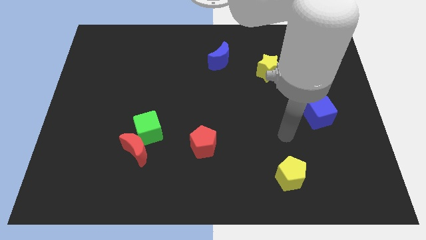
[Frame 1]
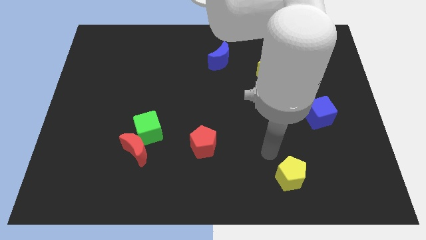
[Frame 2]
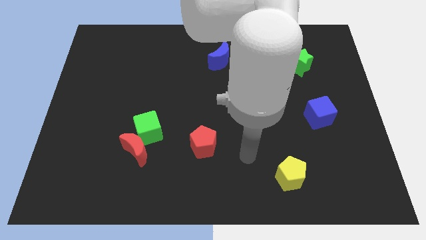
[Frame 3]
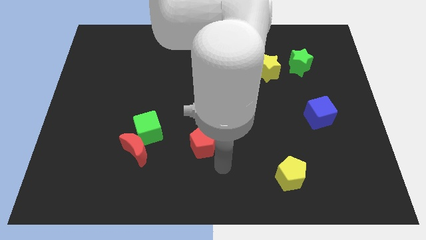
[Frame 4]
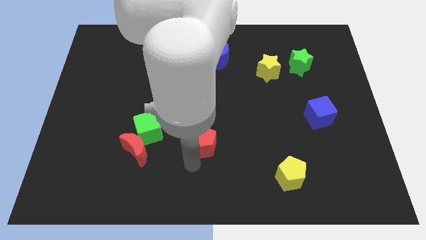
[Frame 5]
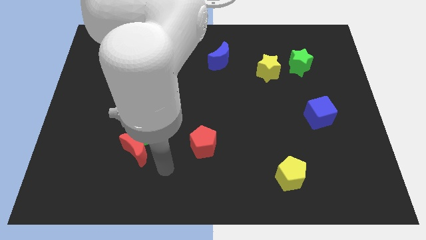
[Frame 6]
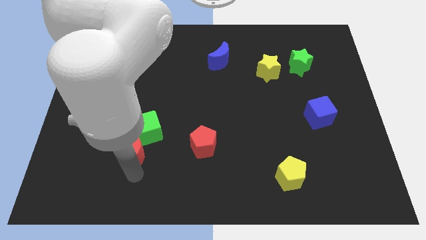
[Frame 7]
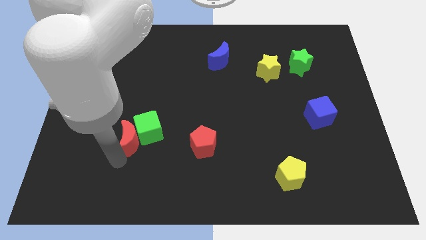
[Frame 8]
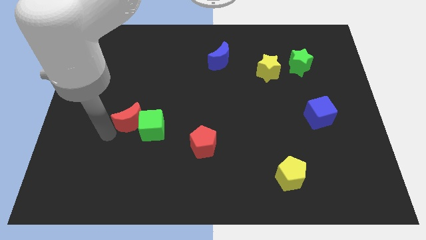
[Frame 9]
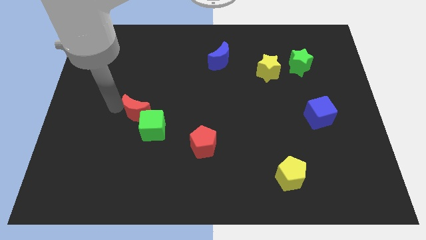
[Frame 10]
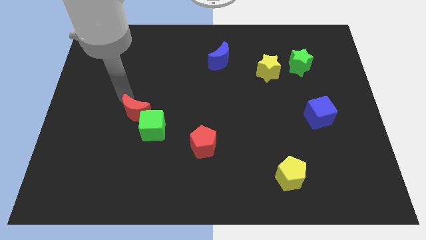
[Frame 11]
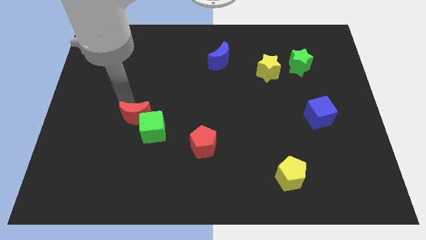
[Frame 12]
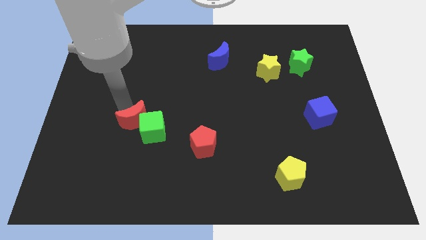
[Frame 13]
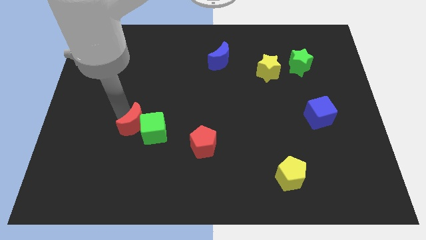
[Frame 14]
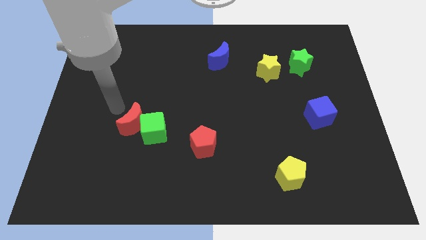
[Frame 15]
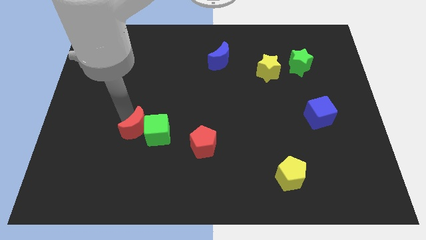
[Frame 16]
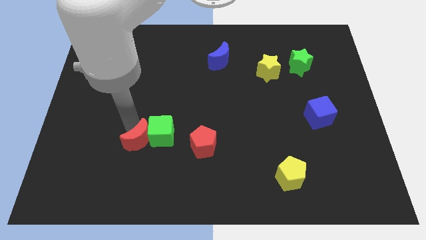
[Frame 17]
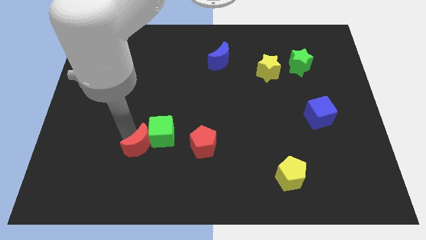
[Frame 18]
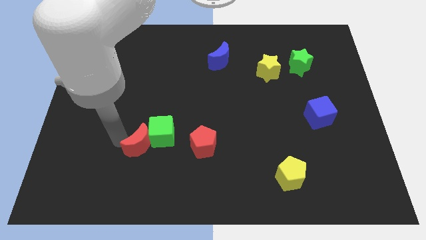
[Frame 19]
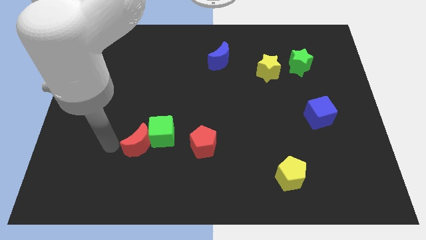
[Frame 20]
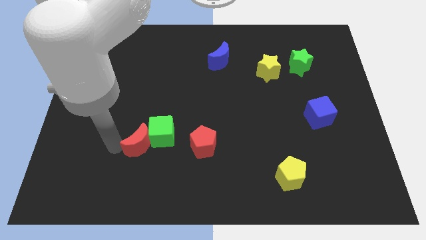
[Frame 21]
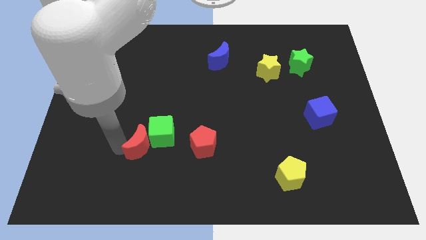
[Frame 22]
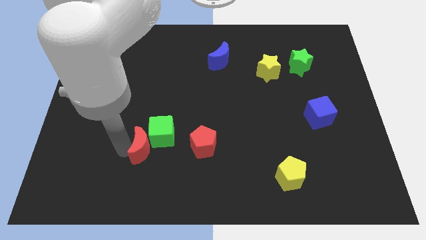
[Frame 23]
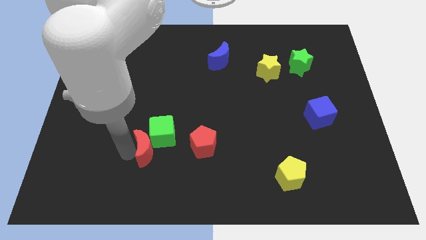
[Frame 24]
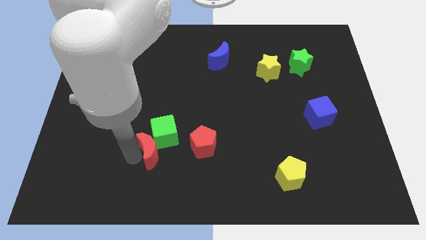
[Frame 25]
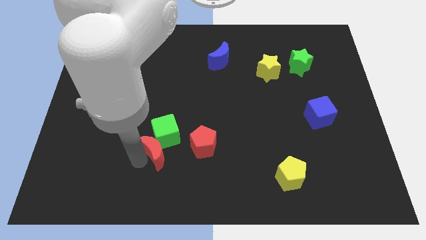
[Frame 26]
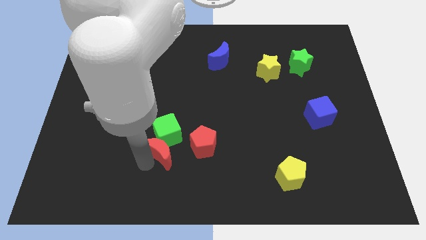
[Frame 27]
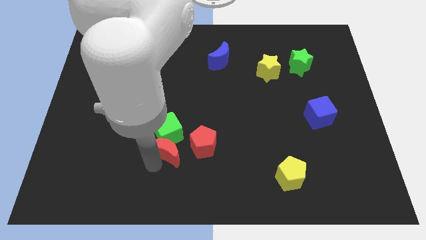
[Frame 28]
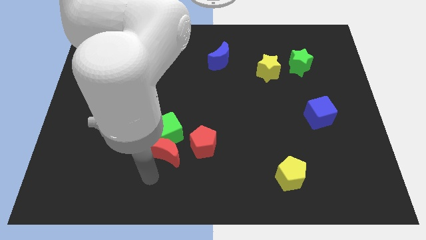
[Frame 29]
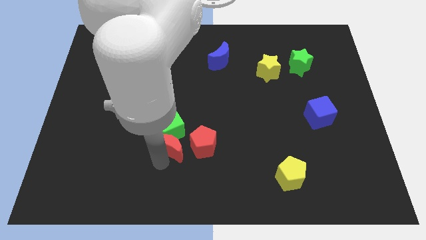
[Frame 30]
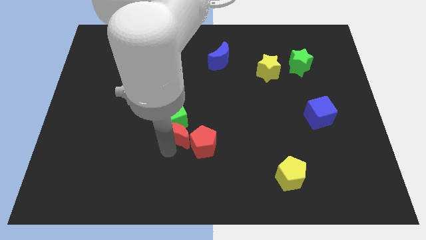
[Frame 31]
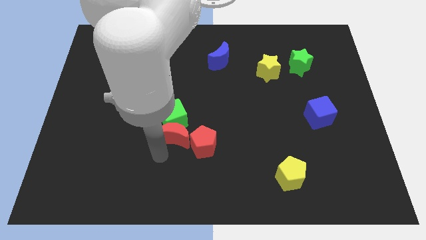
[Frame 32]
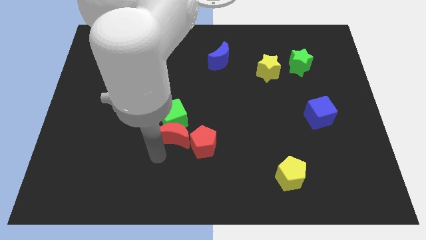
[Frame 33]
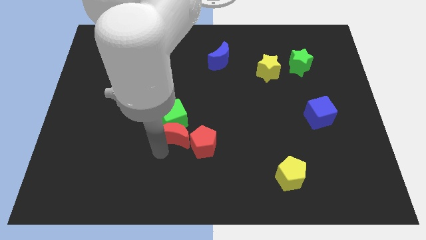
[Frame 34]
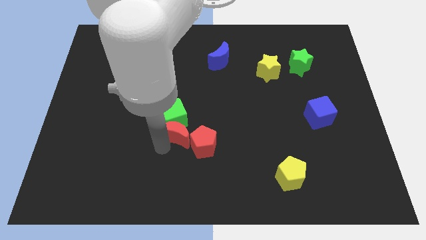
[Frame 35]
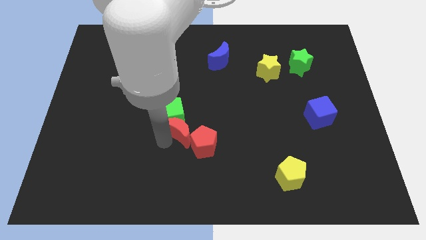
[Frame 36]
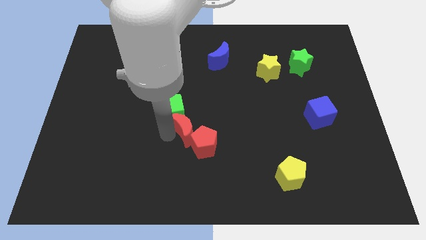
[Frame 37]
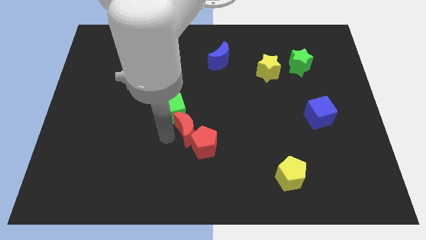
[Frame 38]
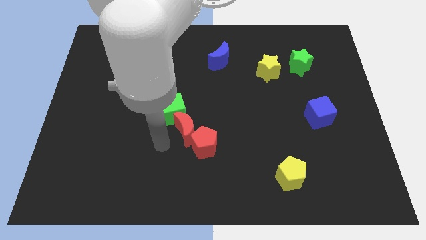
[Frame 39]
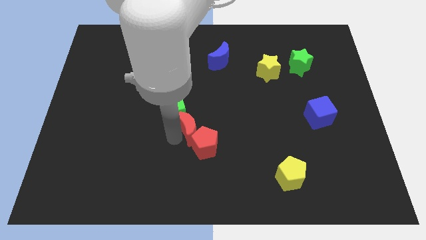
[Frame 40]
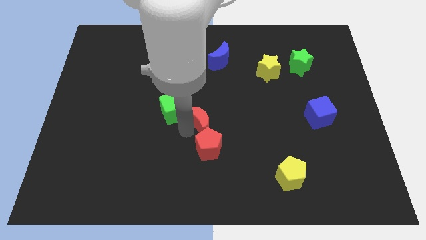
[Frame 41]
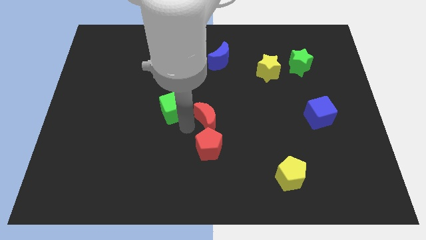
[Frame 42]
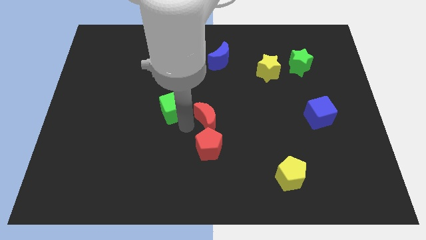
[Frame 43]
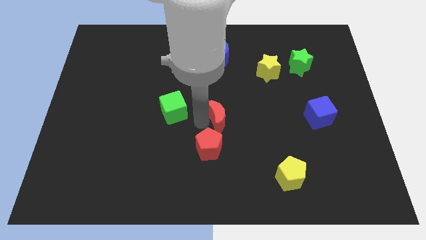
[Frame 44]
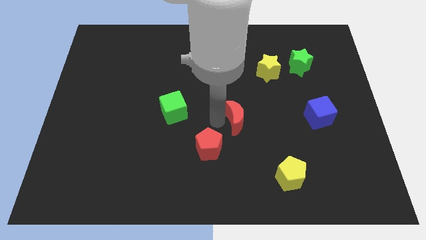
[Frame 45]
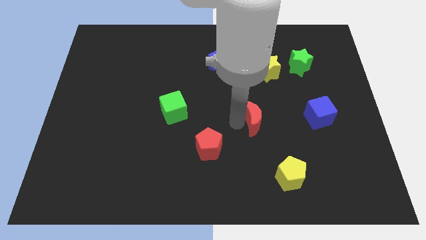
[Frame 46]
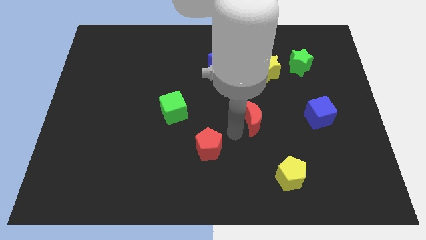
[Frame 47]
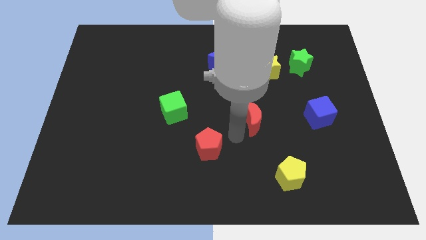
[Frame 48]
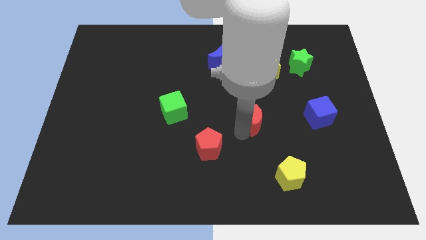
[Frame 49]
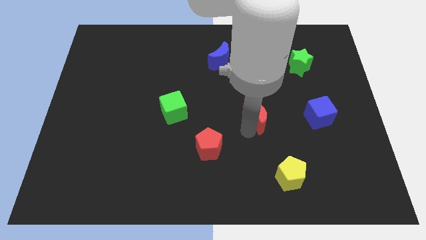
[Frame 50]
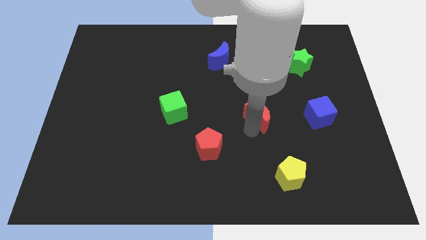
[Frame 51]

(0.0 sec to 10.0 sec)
slide the red moon to the bottom side of the yellow star

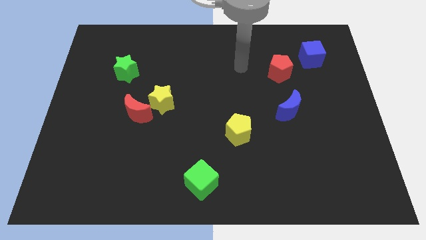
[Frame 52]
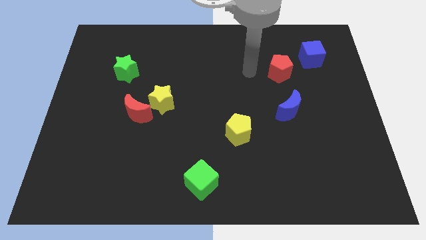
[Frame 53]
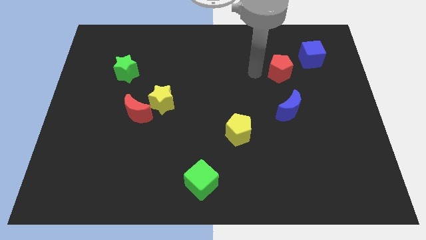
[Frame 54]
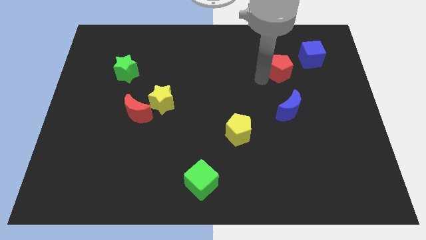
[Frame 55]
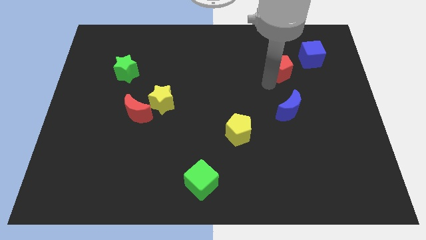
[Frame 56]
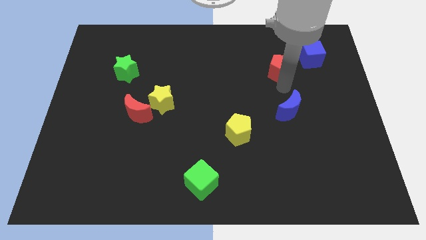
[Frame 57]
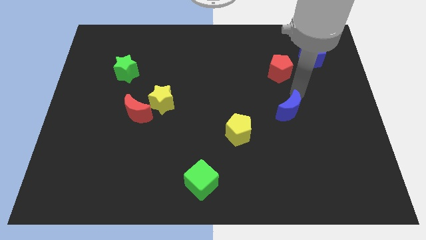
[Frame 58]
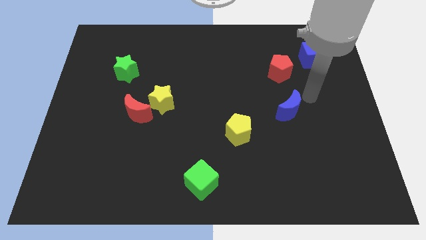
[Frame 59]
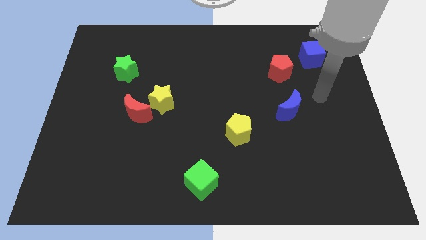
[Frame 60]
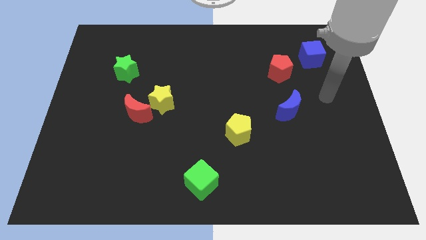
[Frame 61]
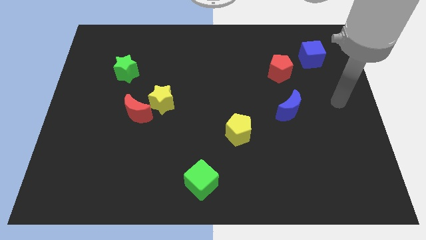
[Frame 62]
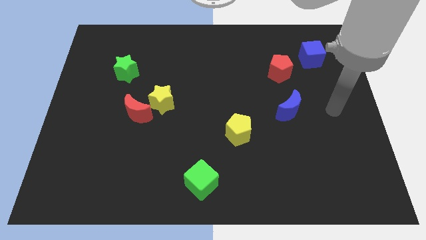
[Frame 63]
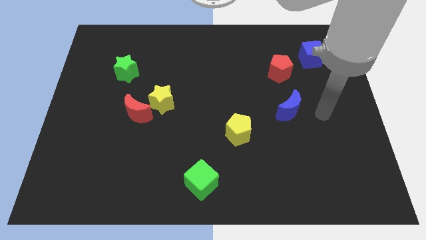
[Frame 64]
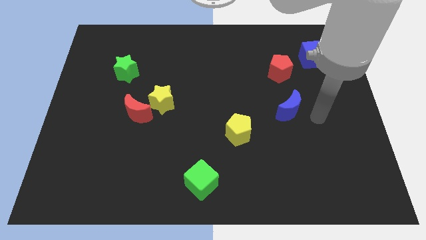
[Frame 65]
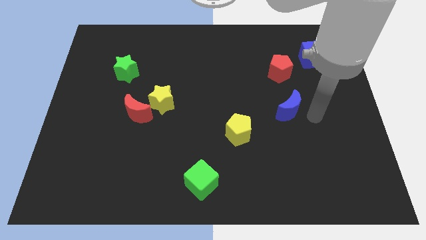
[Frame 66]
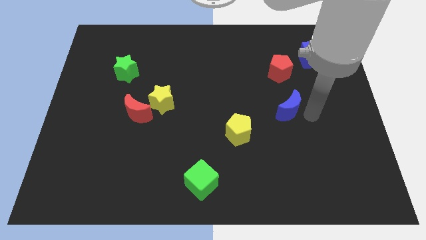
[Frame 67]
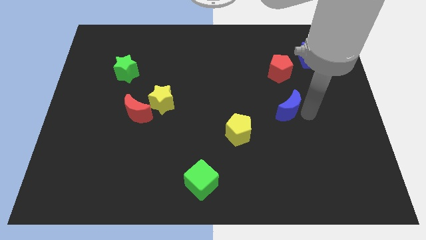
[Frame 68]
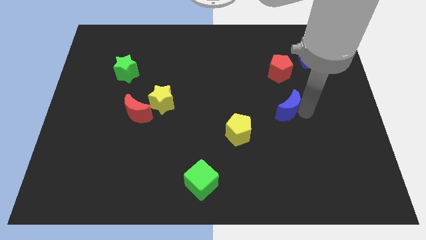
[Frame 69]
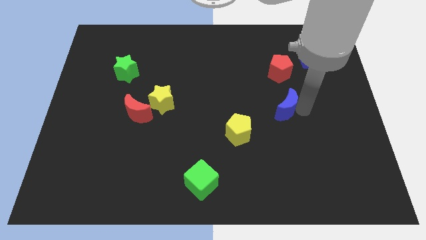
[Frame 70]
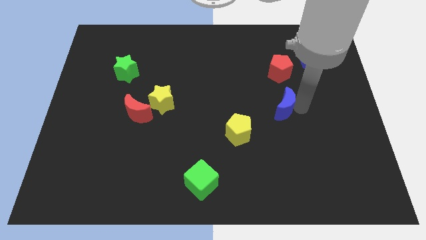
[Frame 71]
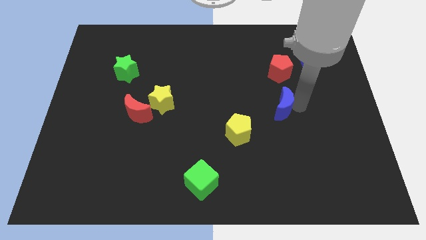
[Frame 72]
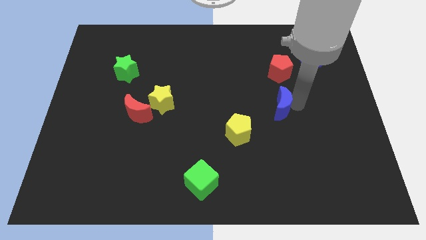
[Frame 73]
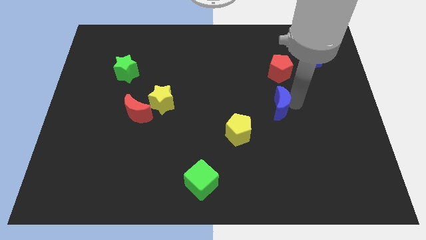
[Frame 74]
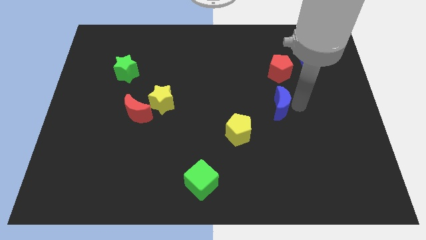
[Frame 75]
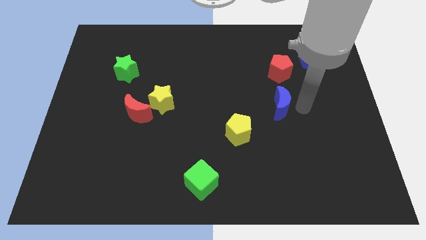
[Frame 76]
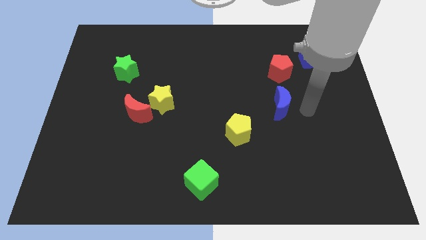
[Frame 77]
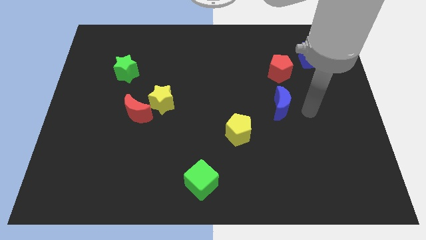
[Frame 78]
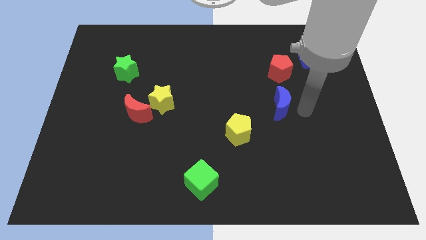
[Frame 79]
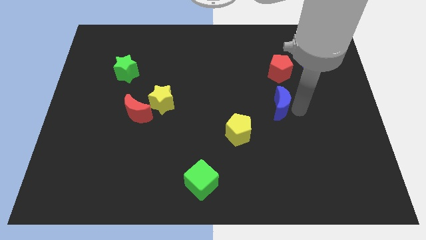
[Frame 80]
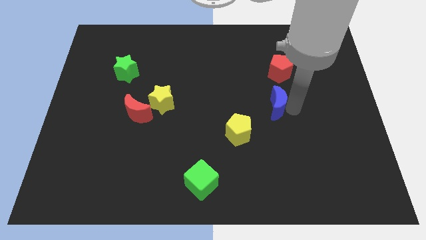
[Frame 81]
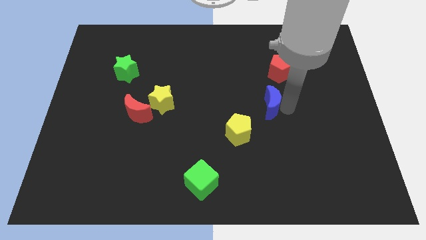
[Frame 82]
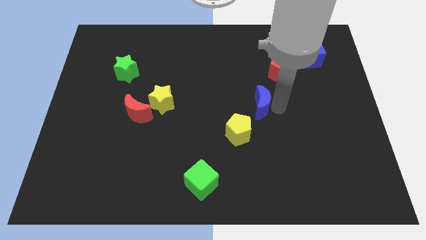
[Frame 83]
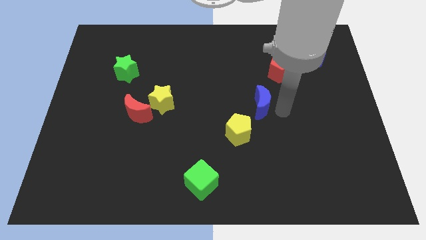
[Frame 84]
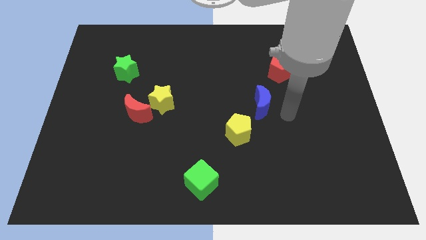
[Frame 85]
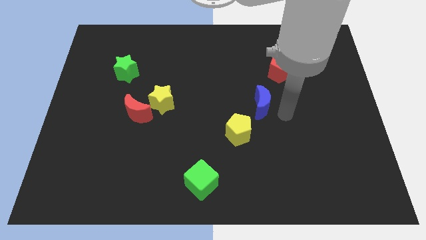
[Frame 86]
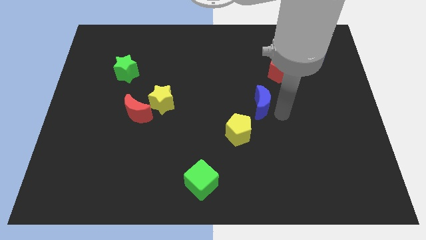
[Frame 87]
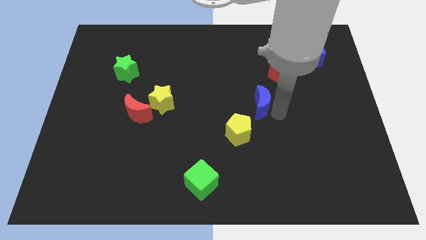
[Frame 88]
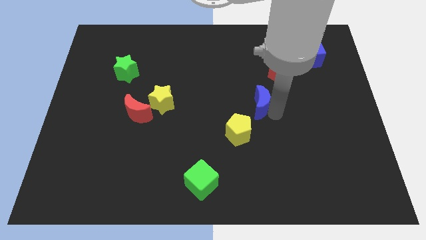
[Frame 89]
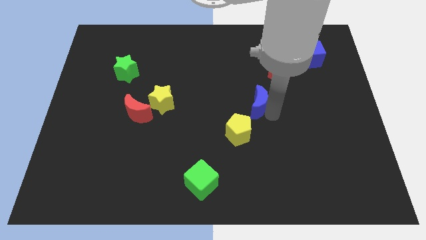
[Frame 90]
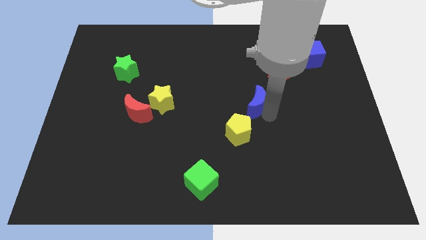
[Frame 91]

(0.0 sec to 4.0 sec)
push the blue moon to the top side of the yellow pentagon
